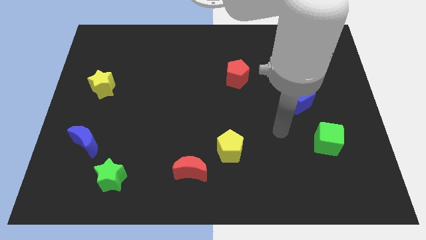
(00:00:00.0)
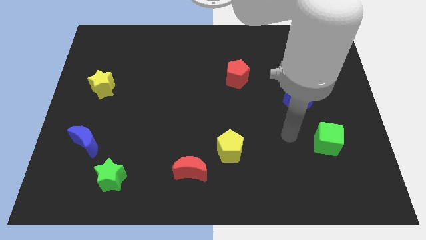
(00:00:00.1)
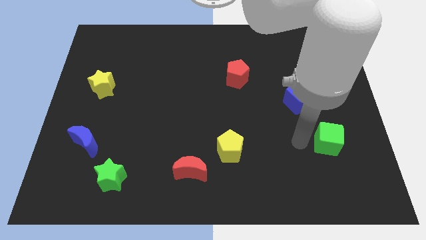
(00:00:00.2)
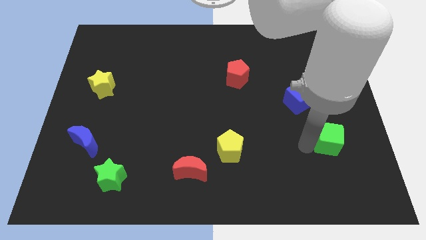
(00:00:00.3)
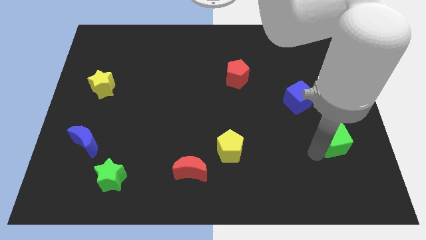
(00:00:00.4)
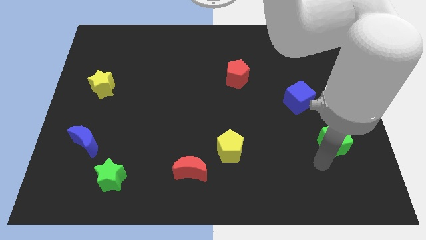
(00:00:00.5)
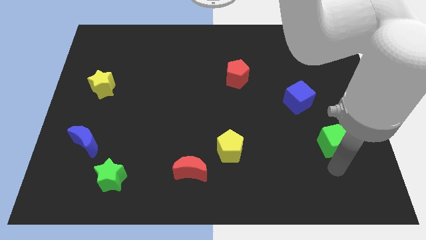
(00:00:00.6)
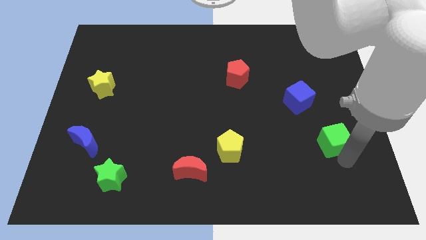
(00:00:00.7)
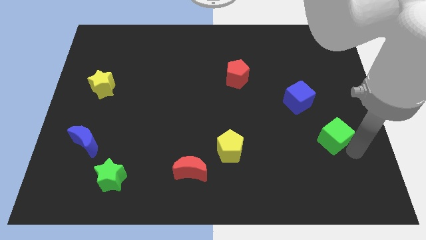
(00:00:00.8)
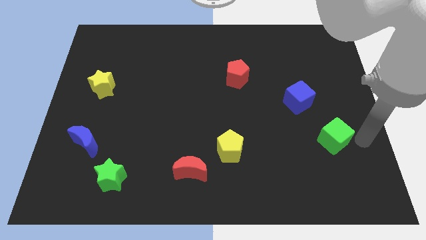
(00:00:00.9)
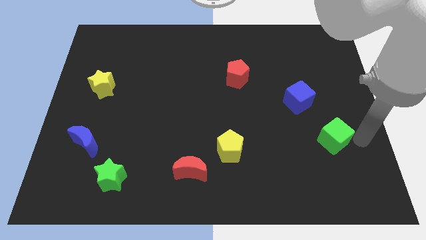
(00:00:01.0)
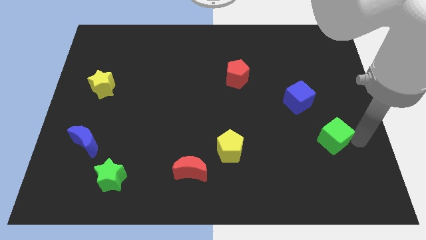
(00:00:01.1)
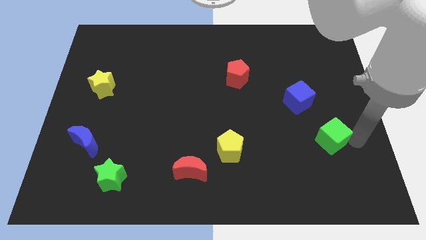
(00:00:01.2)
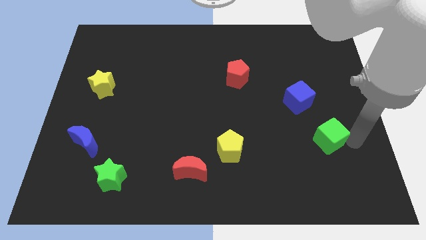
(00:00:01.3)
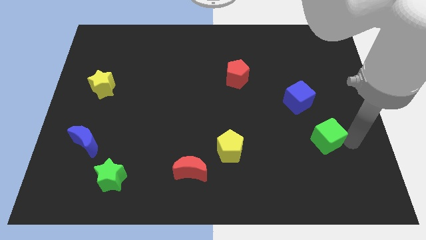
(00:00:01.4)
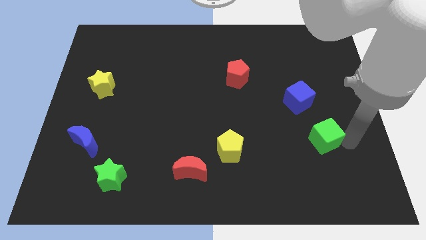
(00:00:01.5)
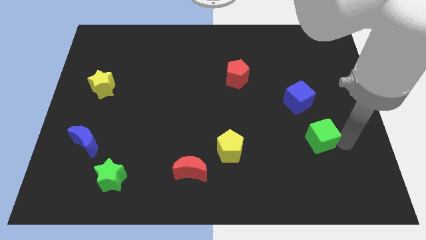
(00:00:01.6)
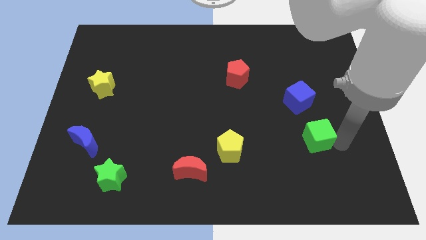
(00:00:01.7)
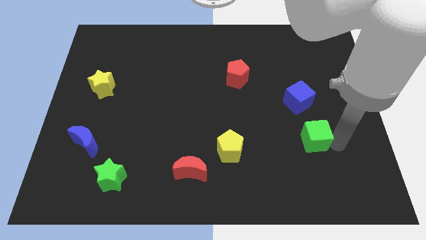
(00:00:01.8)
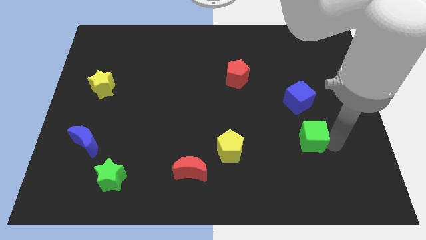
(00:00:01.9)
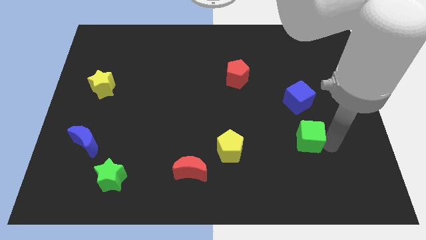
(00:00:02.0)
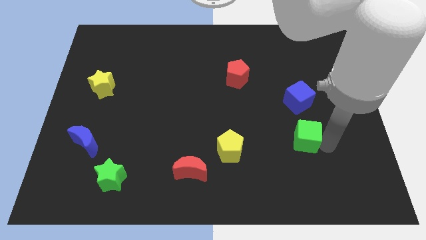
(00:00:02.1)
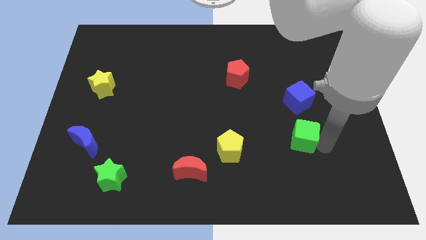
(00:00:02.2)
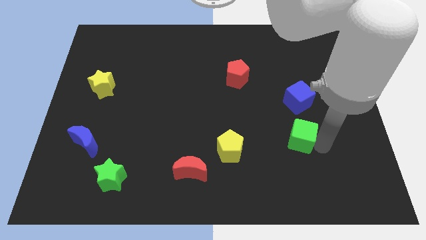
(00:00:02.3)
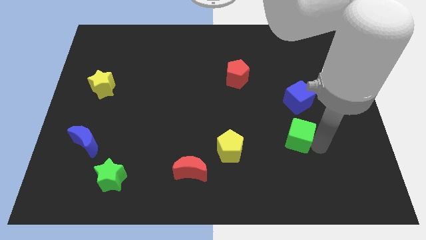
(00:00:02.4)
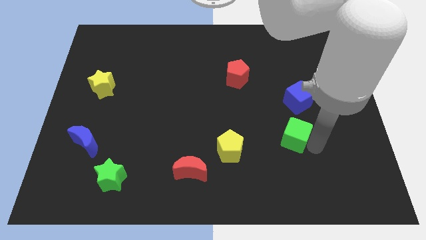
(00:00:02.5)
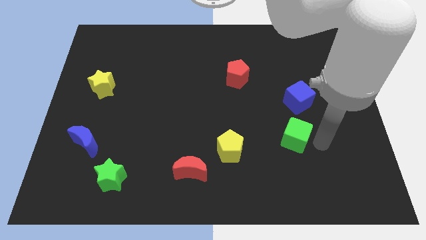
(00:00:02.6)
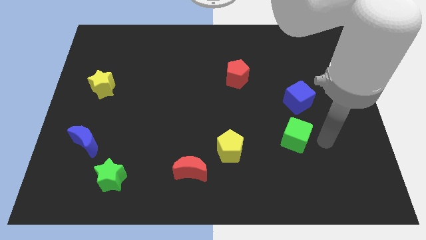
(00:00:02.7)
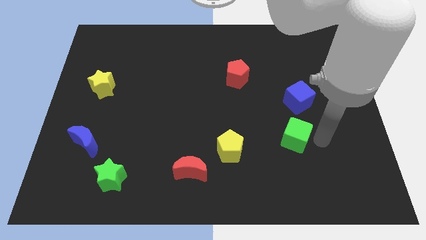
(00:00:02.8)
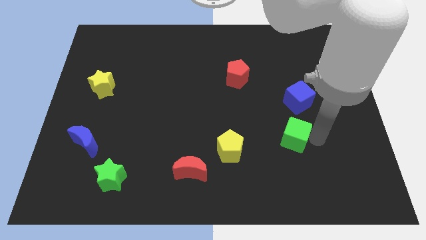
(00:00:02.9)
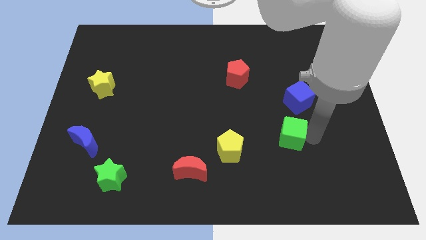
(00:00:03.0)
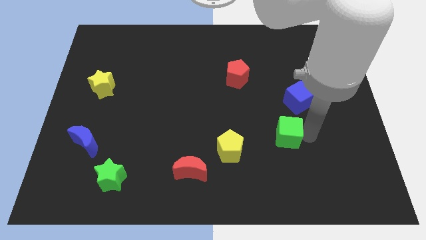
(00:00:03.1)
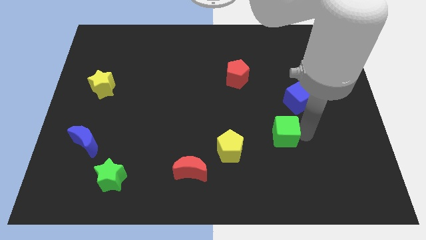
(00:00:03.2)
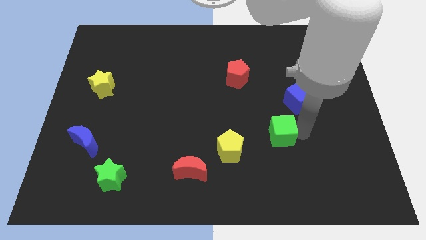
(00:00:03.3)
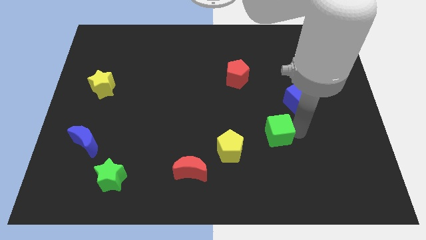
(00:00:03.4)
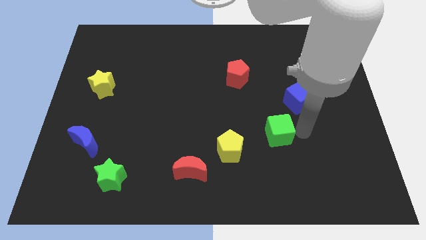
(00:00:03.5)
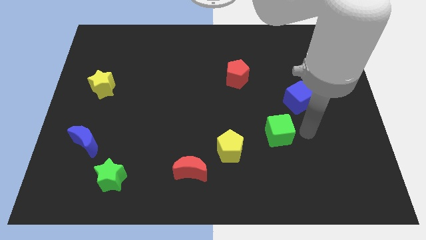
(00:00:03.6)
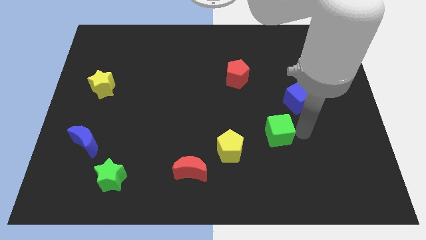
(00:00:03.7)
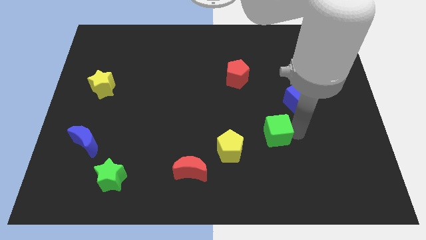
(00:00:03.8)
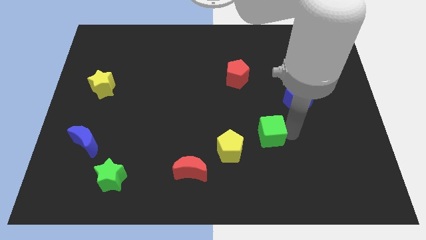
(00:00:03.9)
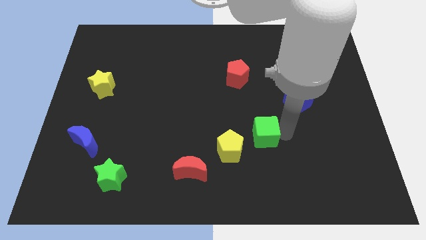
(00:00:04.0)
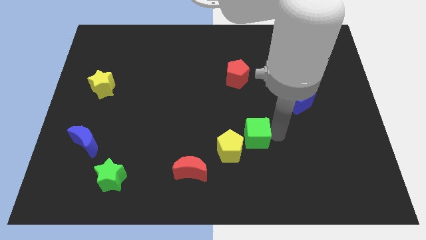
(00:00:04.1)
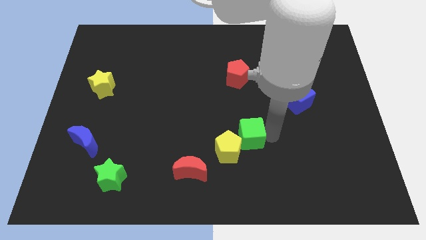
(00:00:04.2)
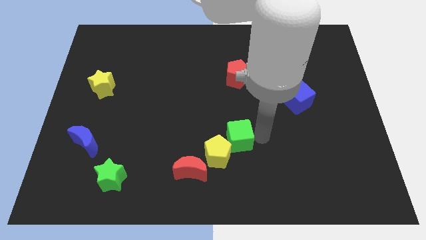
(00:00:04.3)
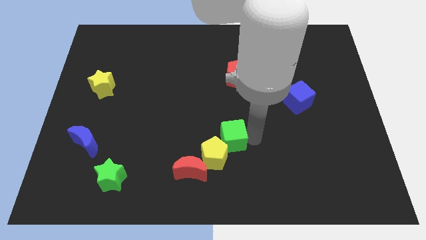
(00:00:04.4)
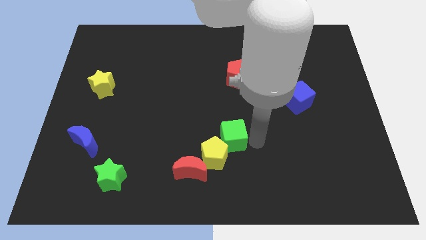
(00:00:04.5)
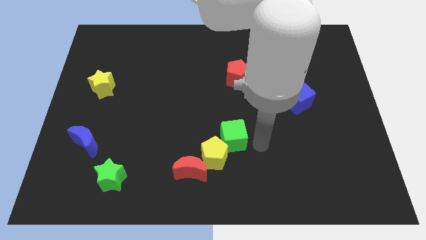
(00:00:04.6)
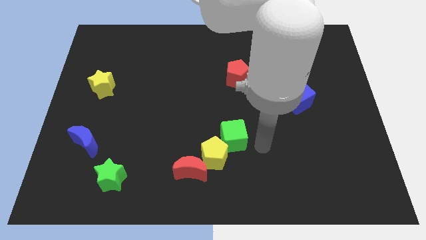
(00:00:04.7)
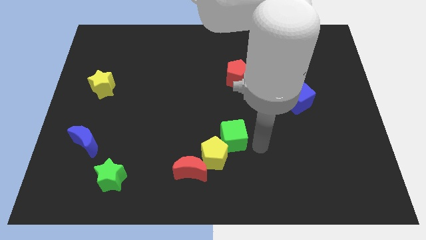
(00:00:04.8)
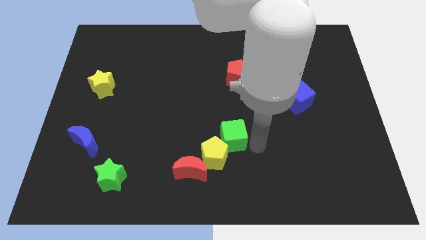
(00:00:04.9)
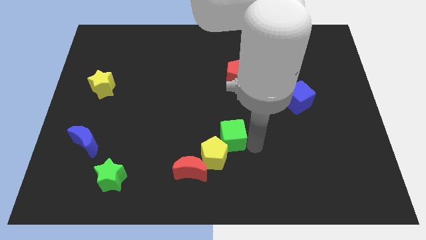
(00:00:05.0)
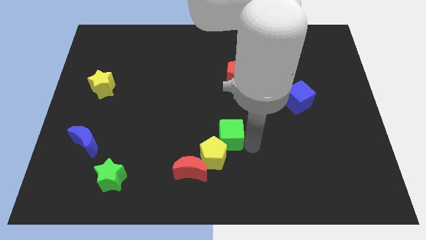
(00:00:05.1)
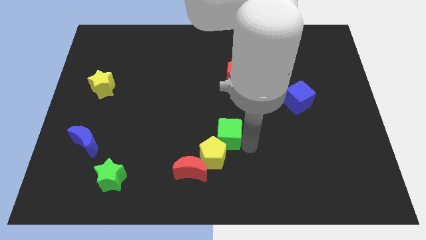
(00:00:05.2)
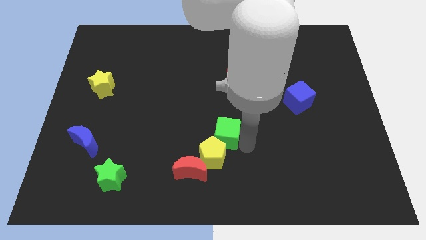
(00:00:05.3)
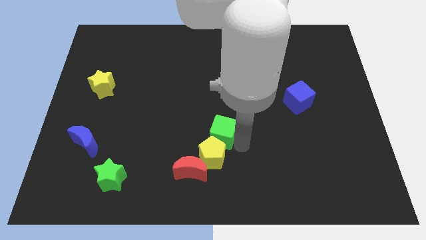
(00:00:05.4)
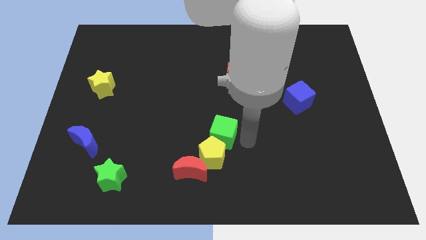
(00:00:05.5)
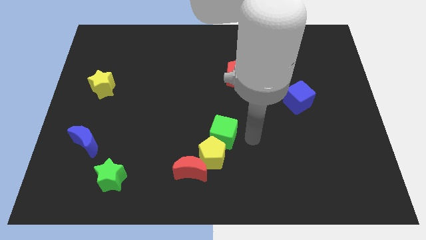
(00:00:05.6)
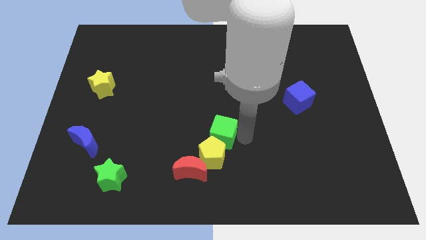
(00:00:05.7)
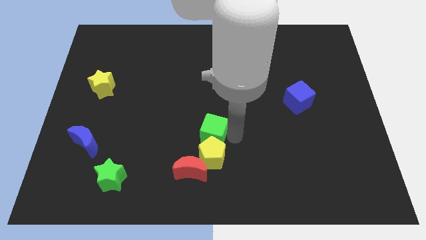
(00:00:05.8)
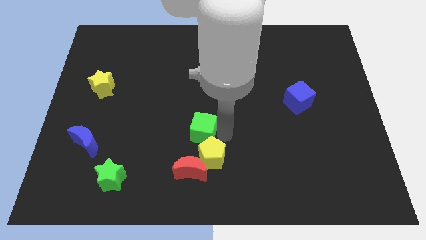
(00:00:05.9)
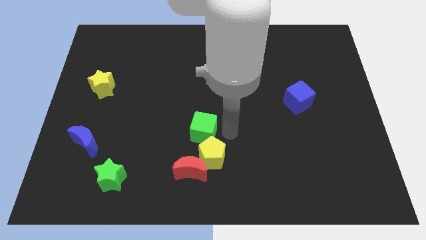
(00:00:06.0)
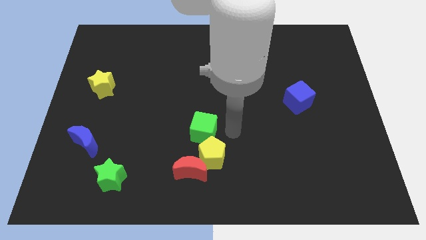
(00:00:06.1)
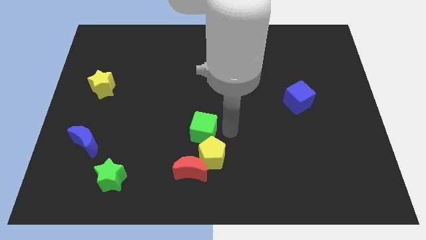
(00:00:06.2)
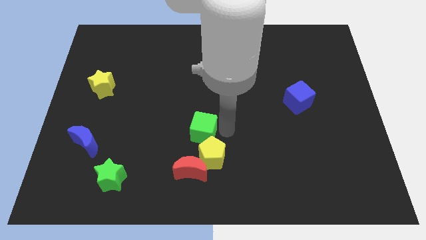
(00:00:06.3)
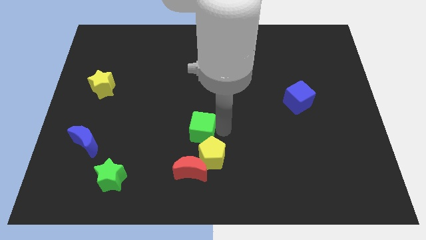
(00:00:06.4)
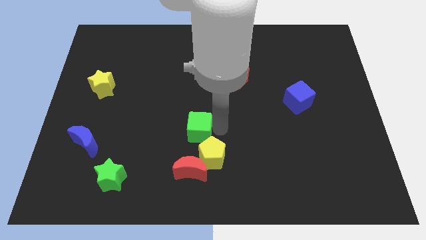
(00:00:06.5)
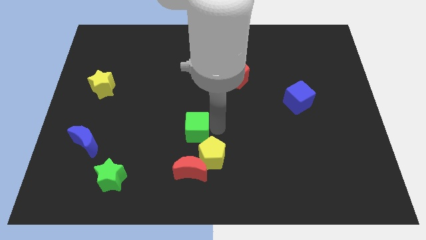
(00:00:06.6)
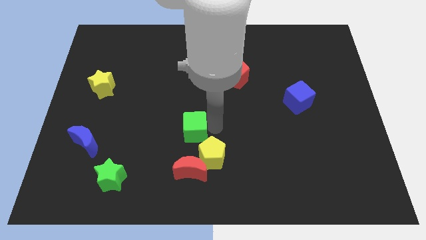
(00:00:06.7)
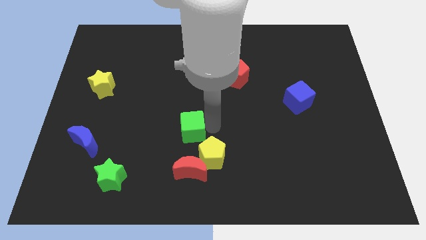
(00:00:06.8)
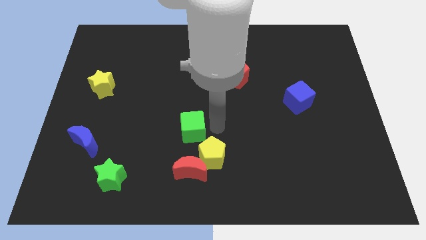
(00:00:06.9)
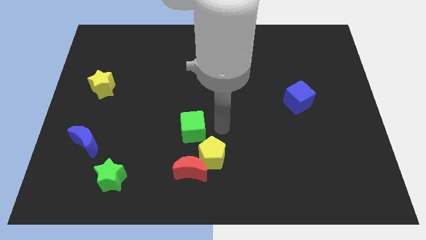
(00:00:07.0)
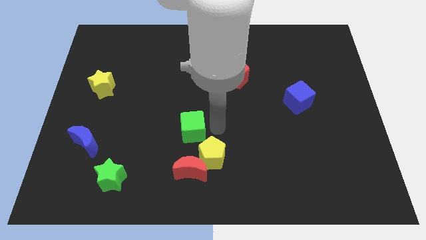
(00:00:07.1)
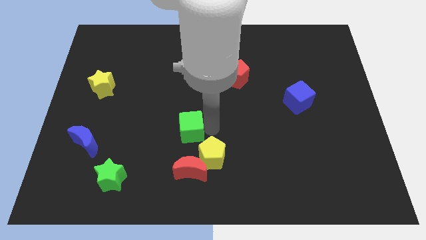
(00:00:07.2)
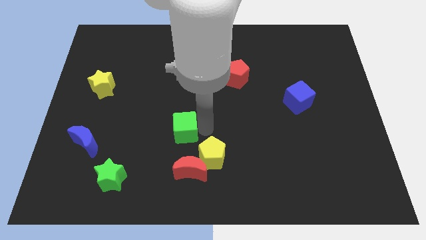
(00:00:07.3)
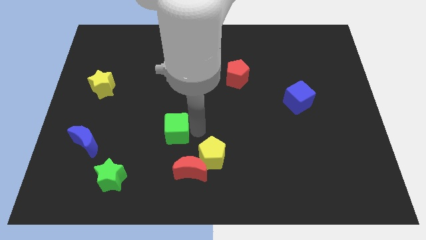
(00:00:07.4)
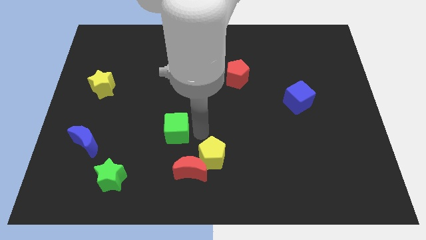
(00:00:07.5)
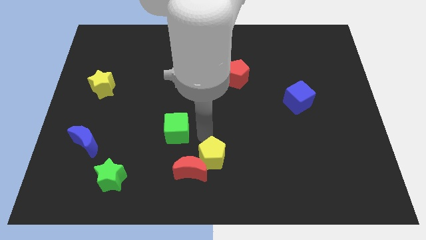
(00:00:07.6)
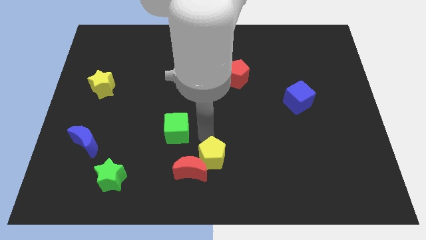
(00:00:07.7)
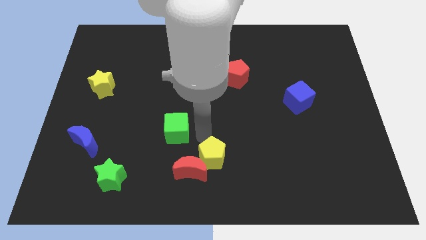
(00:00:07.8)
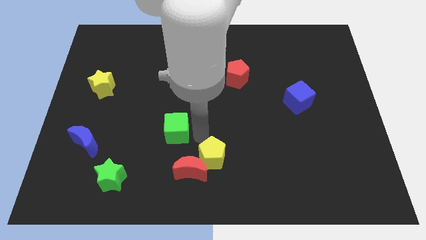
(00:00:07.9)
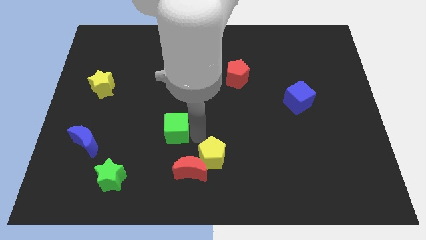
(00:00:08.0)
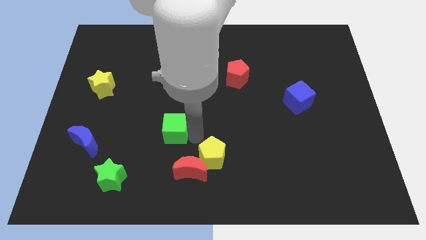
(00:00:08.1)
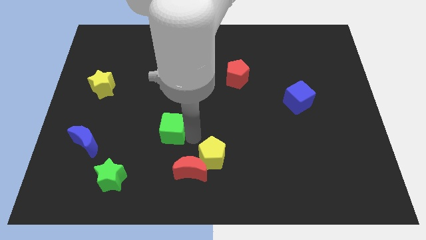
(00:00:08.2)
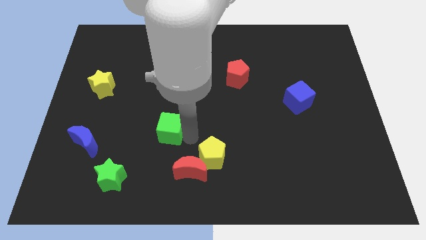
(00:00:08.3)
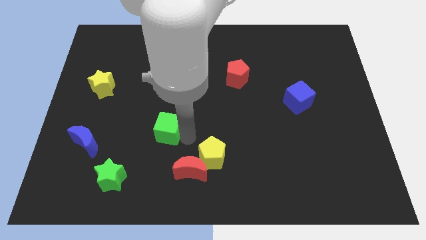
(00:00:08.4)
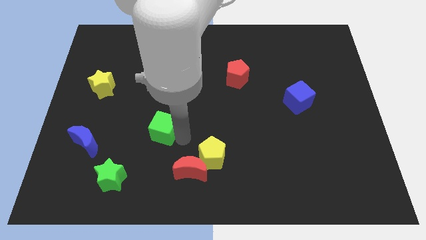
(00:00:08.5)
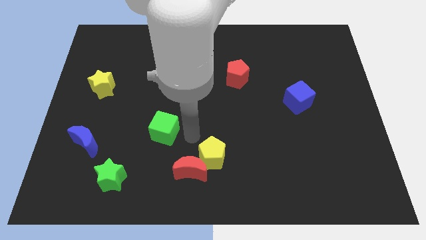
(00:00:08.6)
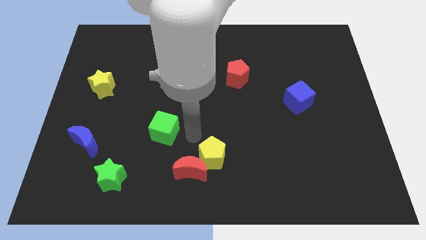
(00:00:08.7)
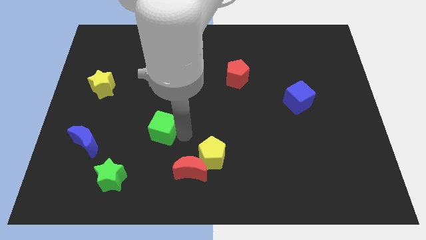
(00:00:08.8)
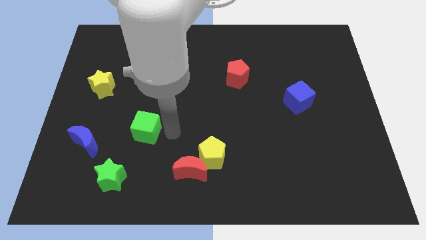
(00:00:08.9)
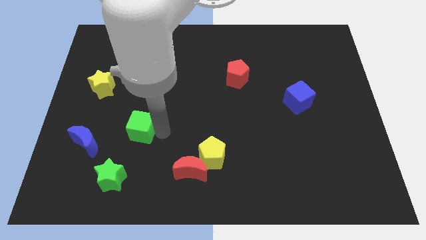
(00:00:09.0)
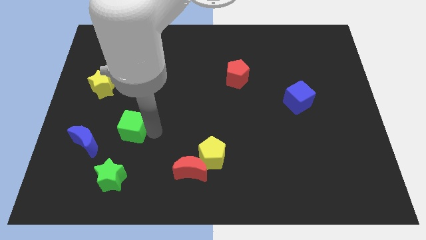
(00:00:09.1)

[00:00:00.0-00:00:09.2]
move the green cube to the top right of the blue moon
